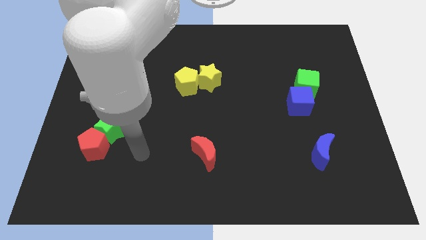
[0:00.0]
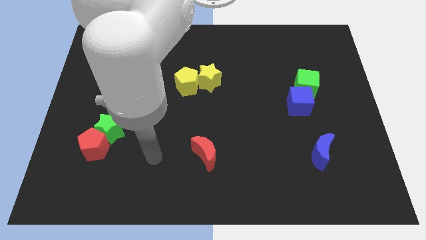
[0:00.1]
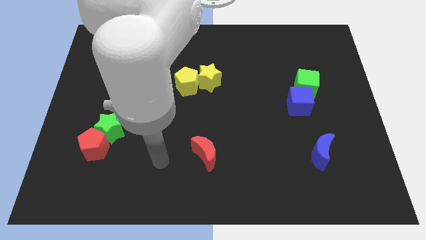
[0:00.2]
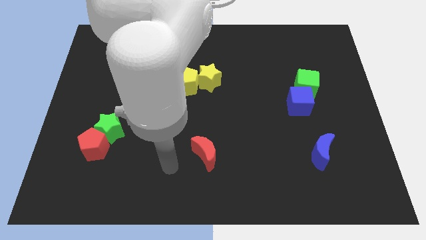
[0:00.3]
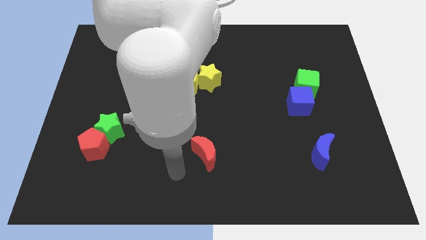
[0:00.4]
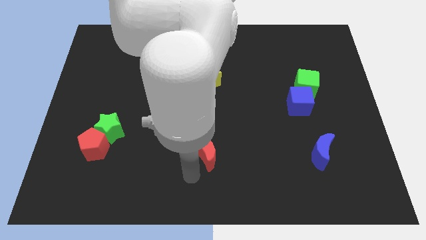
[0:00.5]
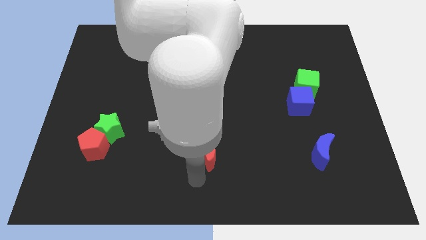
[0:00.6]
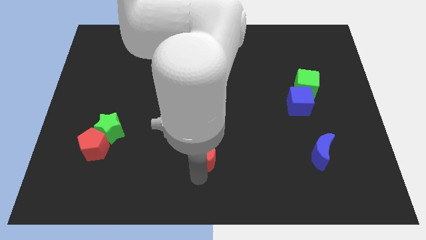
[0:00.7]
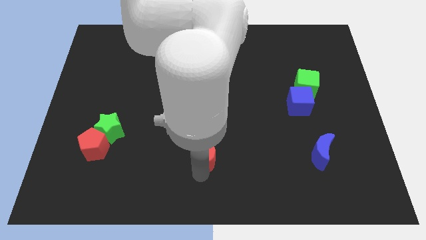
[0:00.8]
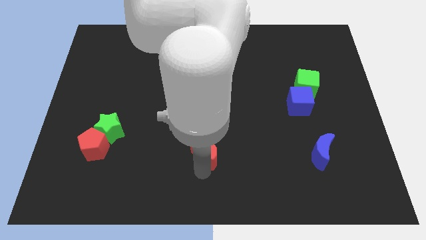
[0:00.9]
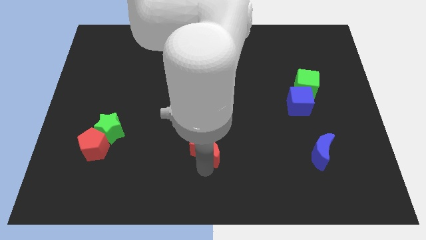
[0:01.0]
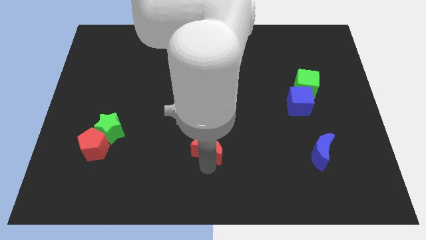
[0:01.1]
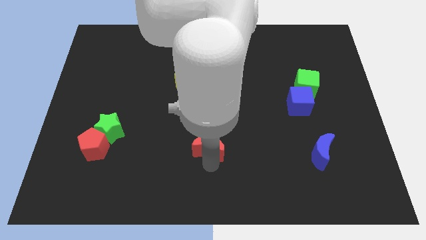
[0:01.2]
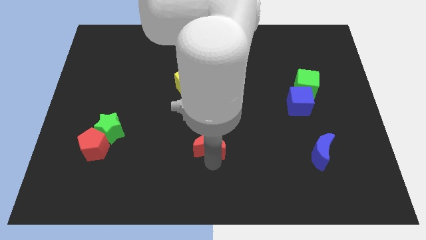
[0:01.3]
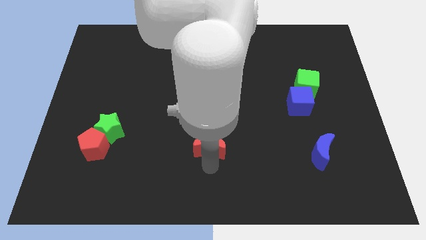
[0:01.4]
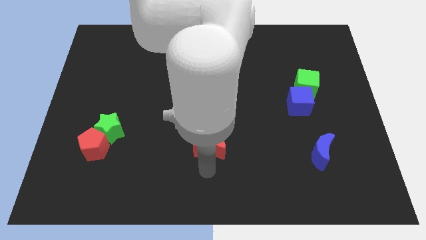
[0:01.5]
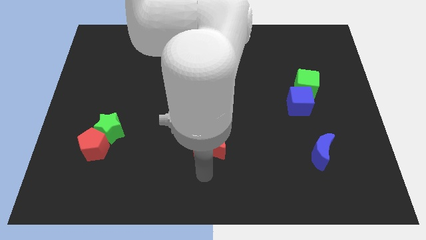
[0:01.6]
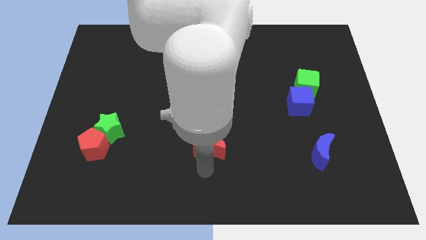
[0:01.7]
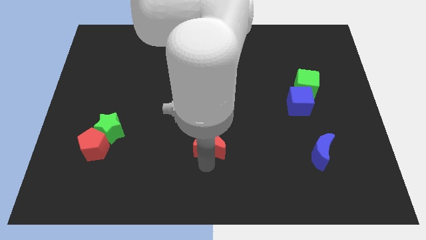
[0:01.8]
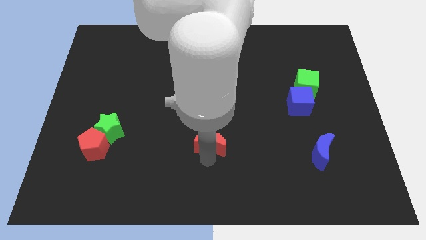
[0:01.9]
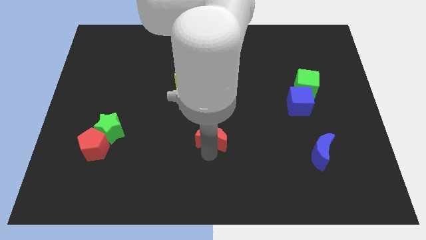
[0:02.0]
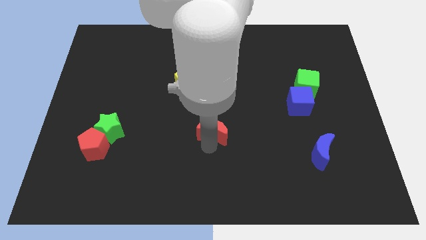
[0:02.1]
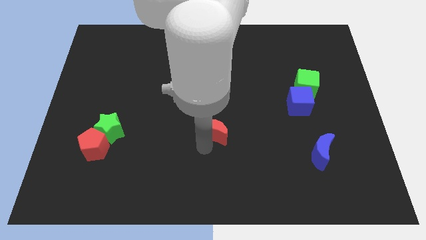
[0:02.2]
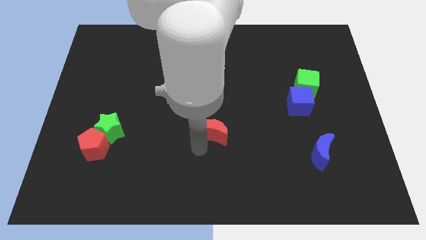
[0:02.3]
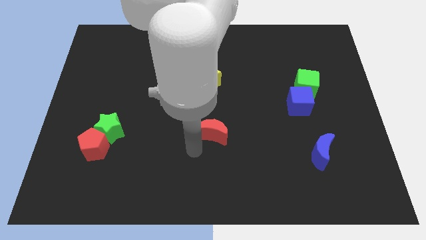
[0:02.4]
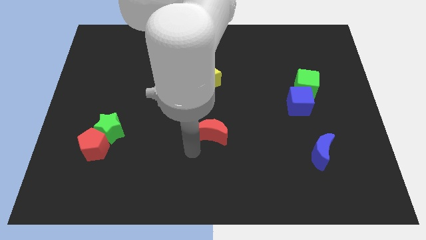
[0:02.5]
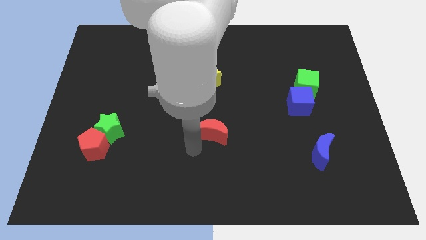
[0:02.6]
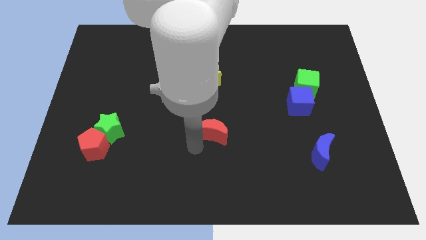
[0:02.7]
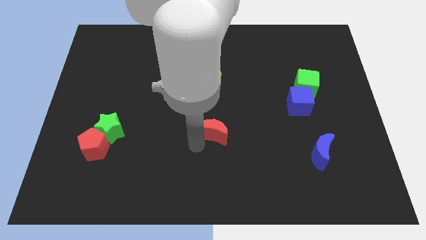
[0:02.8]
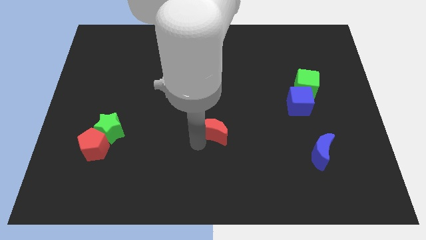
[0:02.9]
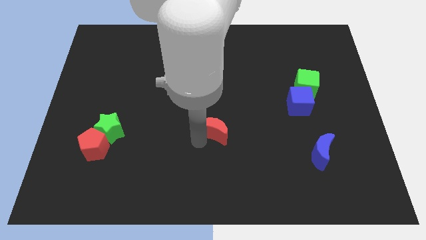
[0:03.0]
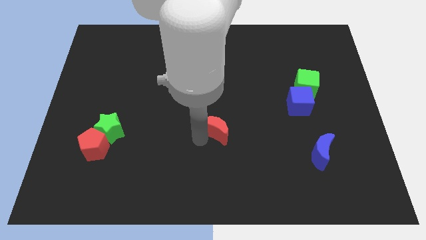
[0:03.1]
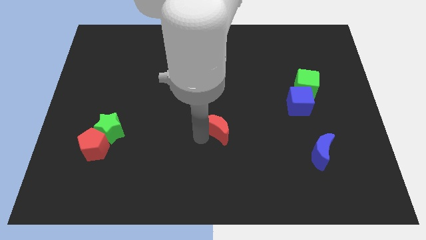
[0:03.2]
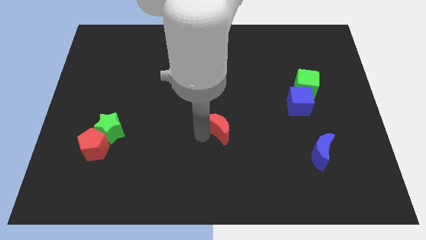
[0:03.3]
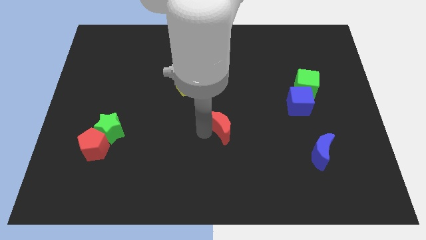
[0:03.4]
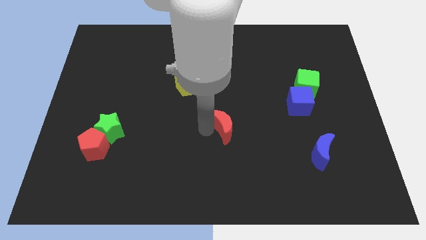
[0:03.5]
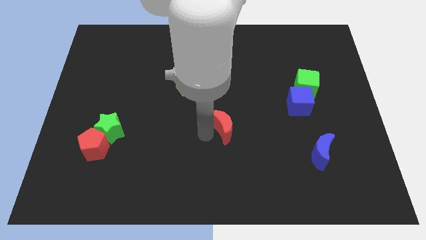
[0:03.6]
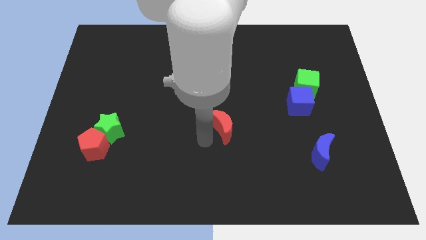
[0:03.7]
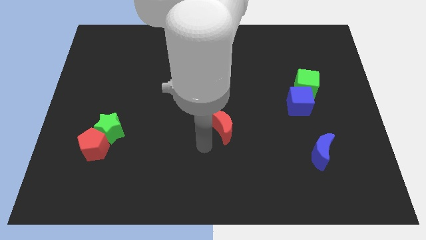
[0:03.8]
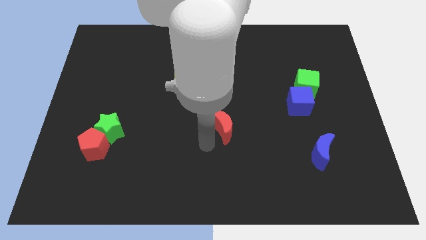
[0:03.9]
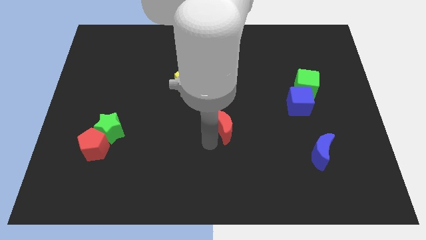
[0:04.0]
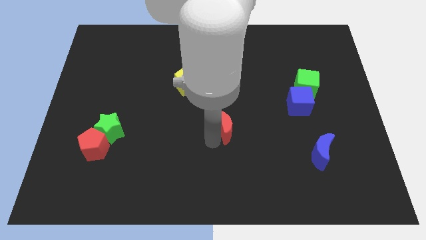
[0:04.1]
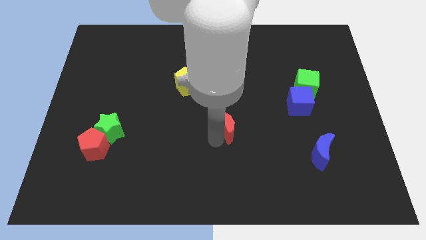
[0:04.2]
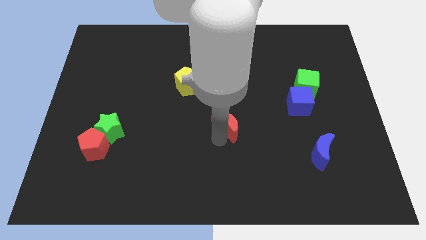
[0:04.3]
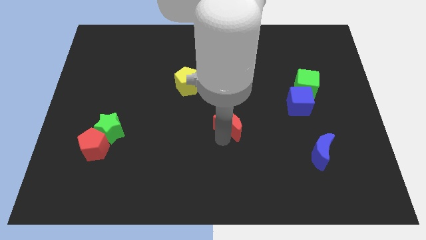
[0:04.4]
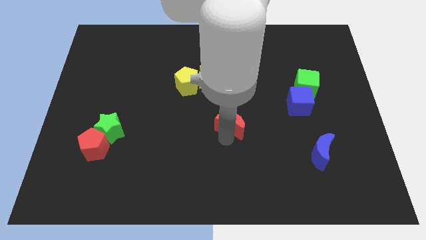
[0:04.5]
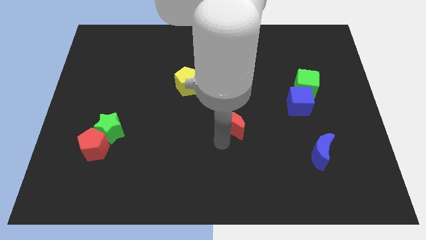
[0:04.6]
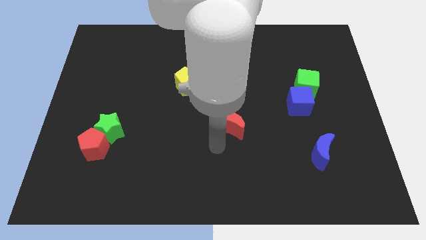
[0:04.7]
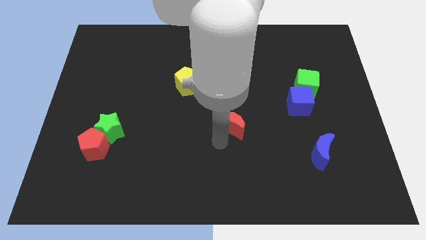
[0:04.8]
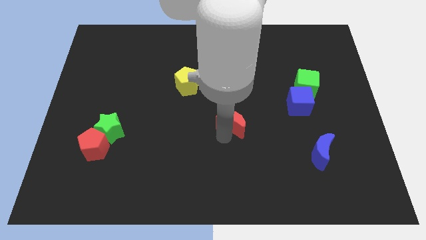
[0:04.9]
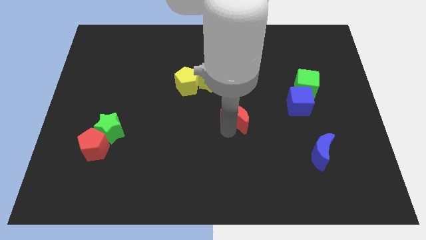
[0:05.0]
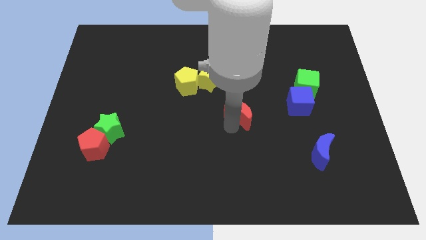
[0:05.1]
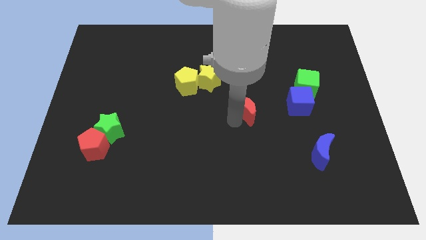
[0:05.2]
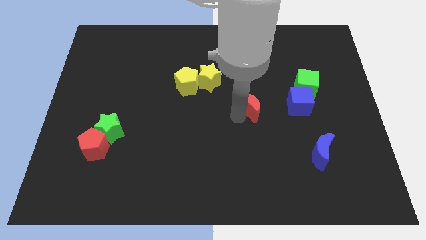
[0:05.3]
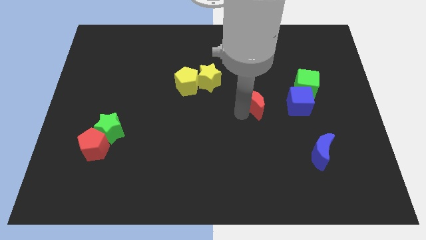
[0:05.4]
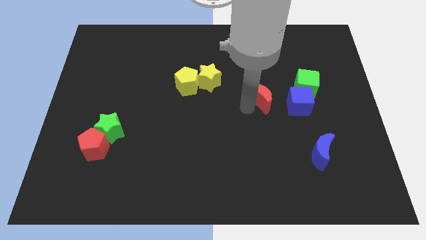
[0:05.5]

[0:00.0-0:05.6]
push the red moon upwards and then right

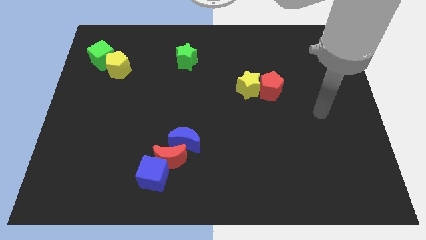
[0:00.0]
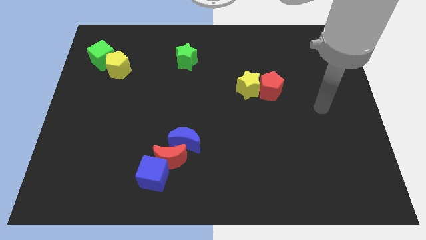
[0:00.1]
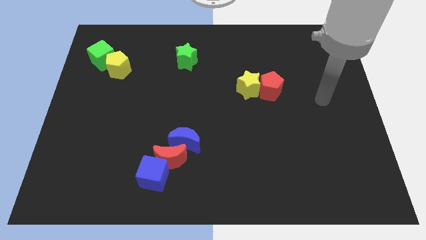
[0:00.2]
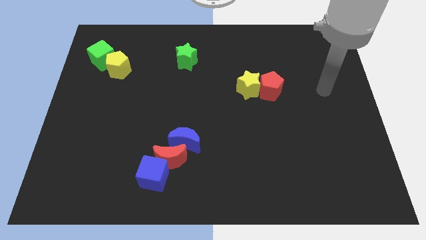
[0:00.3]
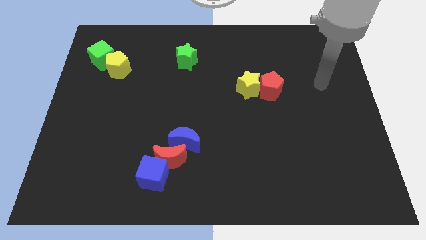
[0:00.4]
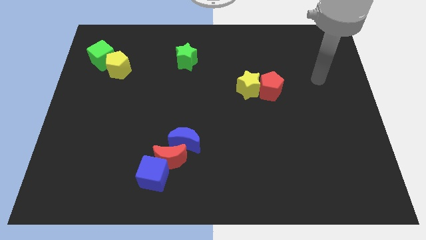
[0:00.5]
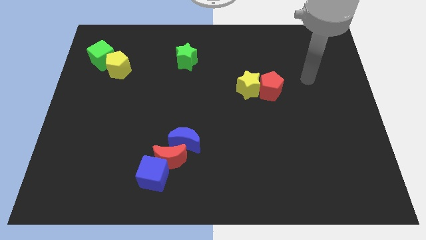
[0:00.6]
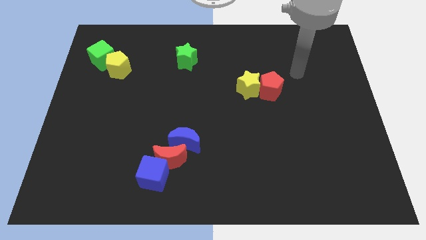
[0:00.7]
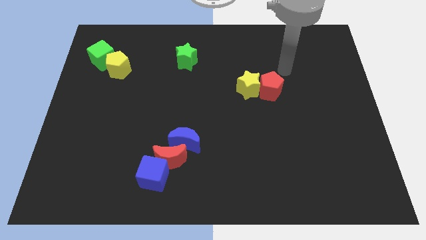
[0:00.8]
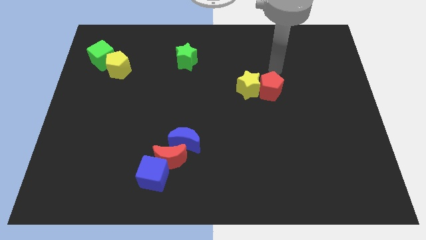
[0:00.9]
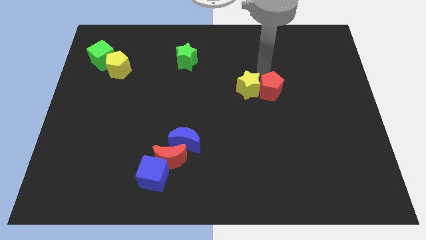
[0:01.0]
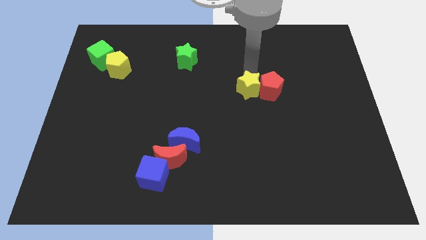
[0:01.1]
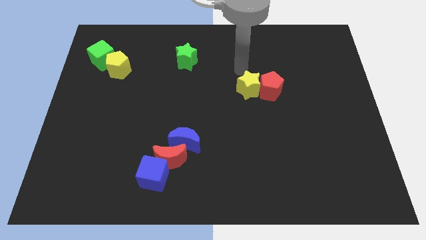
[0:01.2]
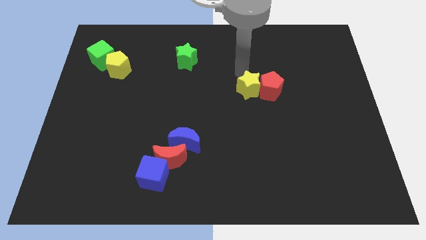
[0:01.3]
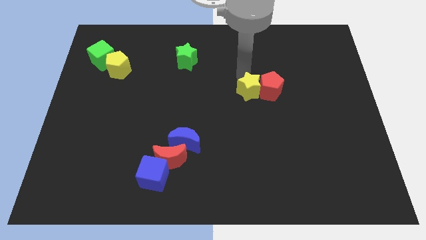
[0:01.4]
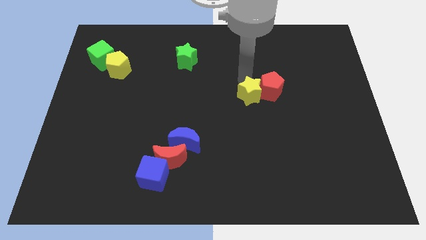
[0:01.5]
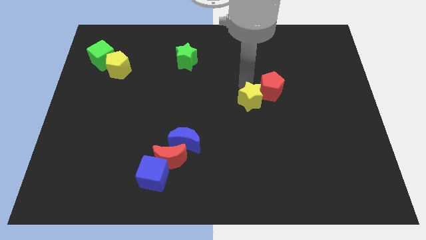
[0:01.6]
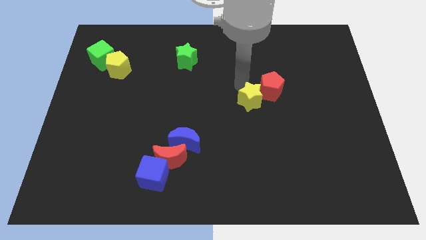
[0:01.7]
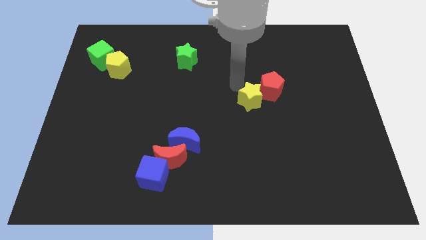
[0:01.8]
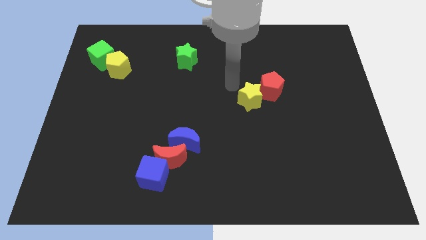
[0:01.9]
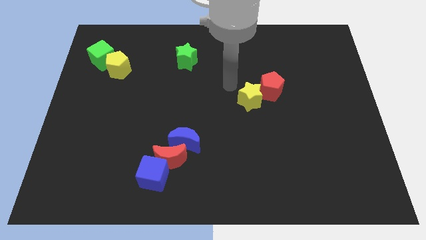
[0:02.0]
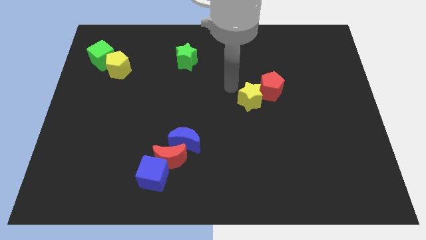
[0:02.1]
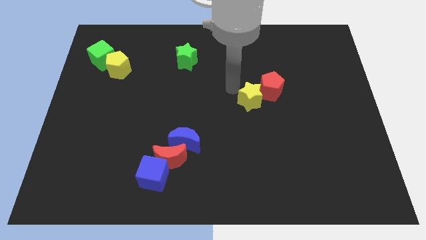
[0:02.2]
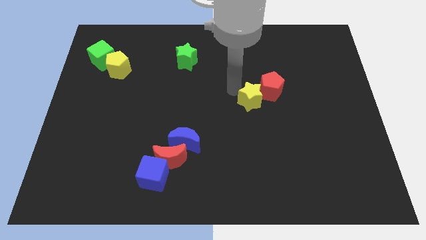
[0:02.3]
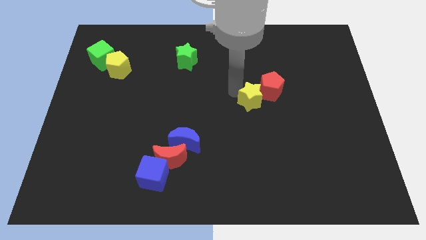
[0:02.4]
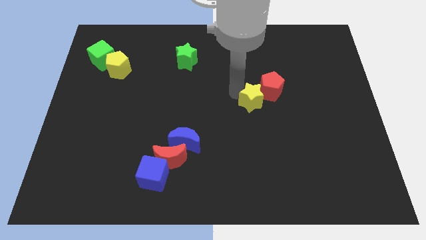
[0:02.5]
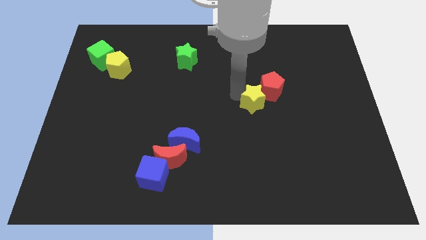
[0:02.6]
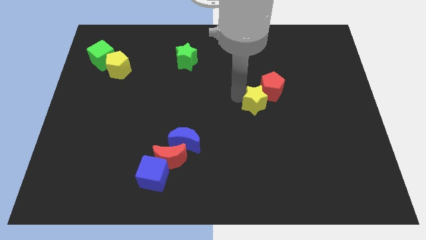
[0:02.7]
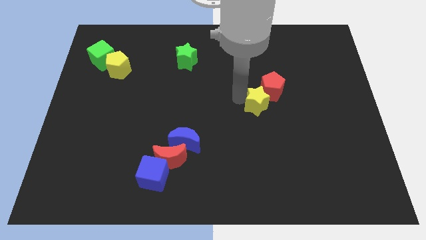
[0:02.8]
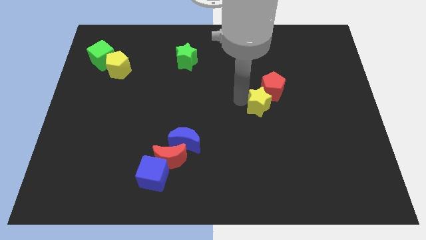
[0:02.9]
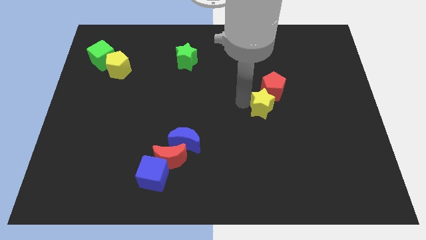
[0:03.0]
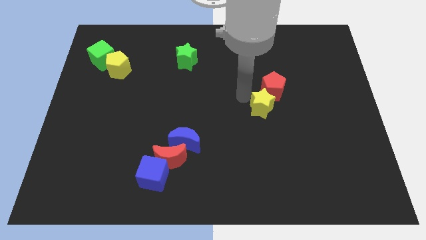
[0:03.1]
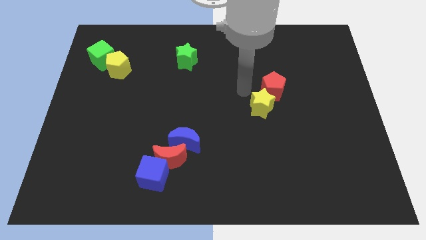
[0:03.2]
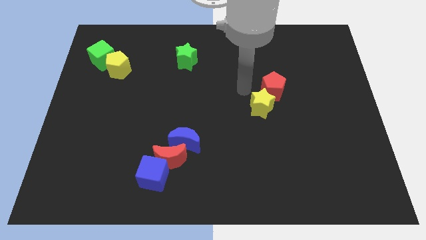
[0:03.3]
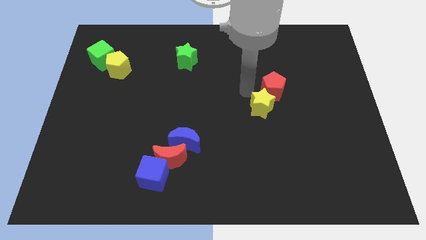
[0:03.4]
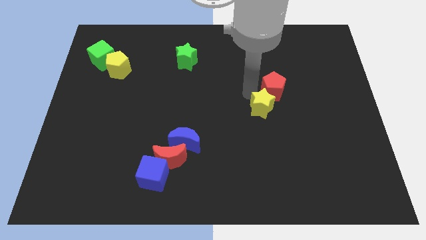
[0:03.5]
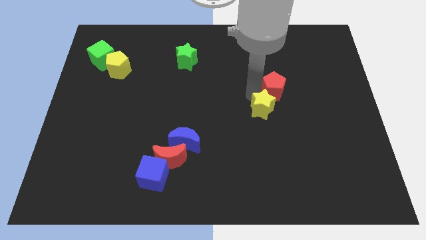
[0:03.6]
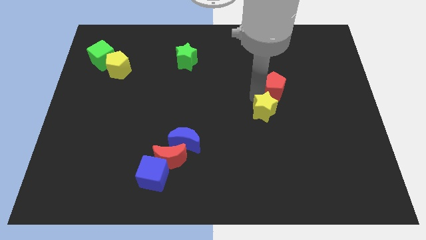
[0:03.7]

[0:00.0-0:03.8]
move the yellow star diagonally down and right slightly
